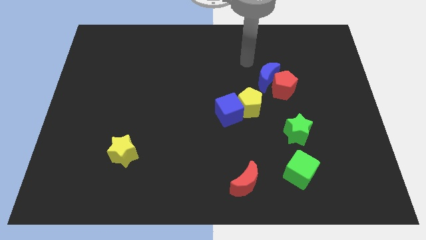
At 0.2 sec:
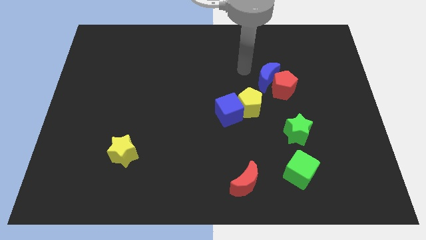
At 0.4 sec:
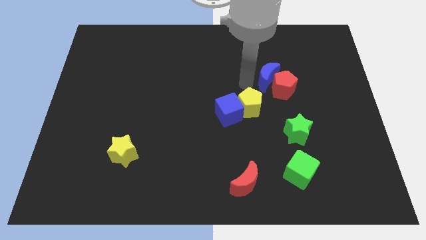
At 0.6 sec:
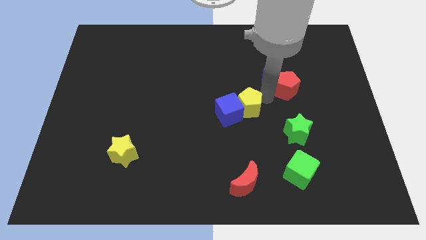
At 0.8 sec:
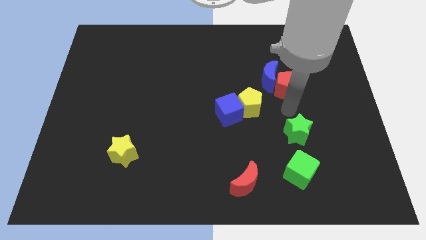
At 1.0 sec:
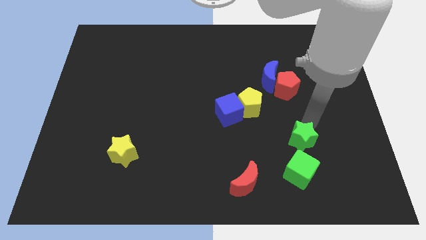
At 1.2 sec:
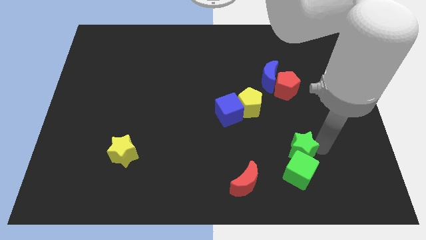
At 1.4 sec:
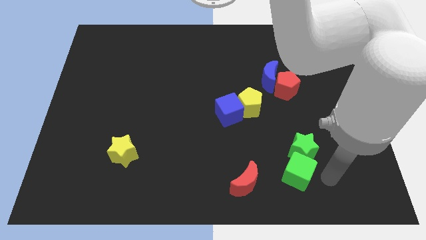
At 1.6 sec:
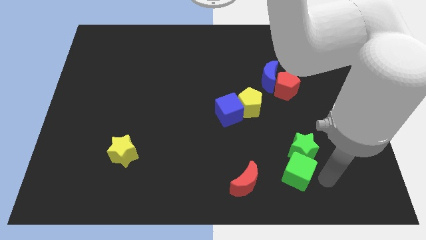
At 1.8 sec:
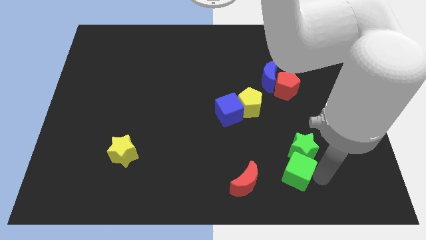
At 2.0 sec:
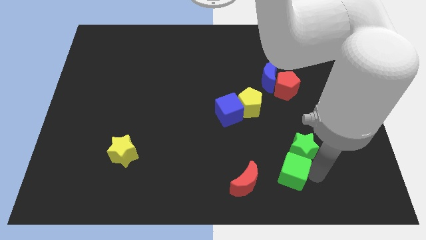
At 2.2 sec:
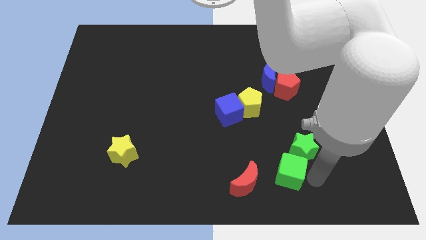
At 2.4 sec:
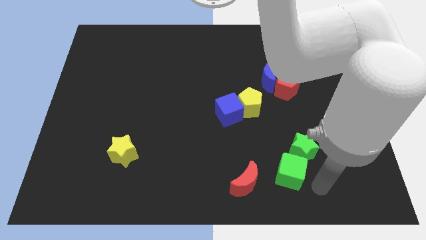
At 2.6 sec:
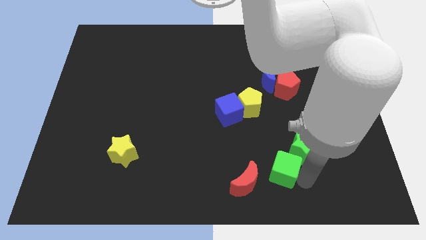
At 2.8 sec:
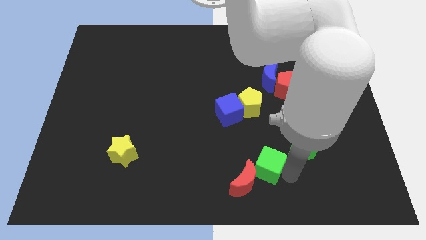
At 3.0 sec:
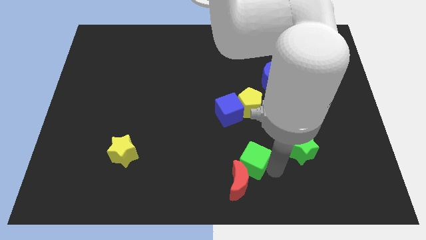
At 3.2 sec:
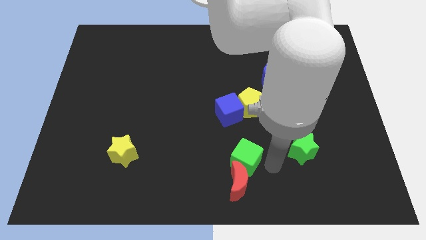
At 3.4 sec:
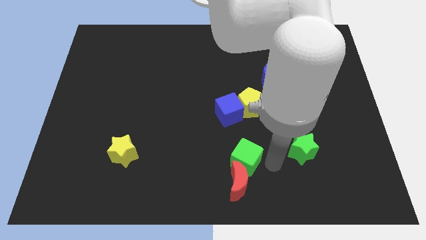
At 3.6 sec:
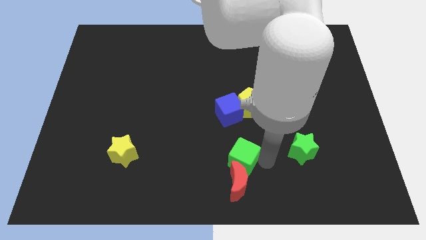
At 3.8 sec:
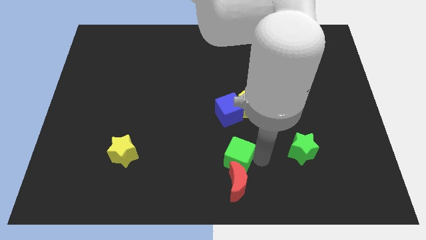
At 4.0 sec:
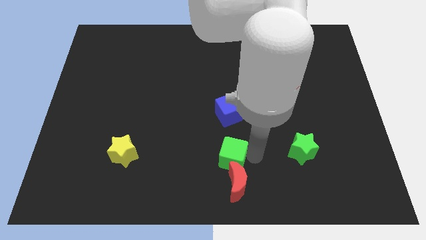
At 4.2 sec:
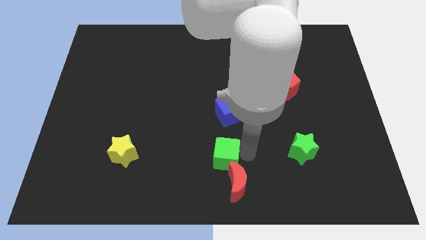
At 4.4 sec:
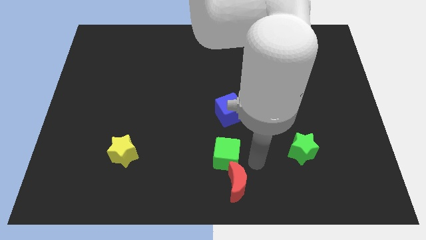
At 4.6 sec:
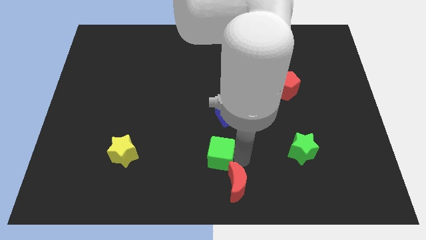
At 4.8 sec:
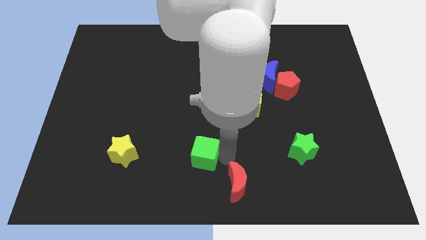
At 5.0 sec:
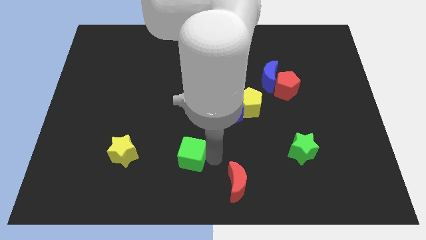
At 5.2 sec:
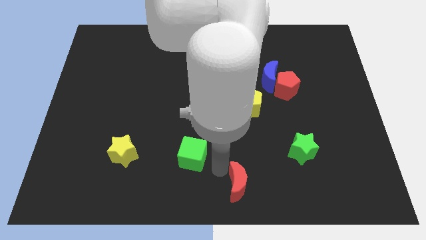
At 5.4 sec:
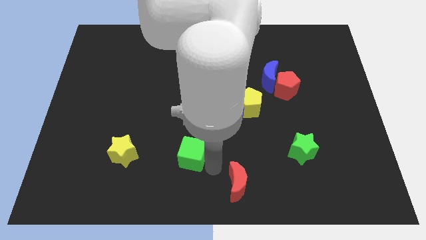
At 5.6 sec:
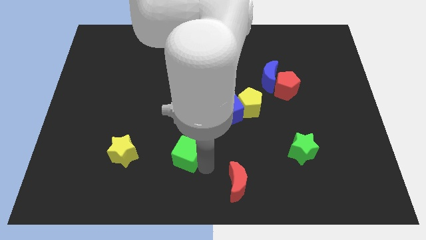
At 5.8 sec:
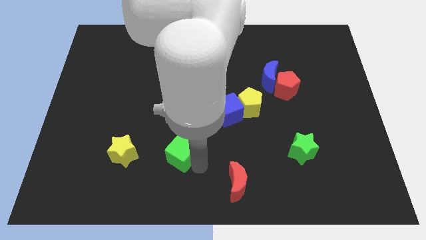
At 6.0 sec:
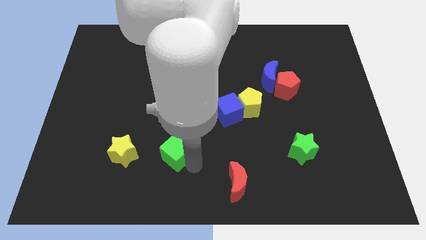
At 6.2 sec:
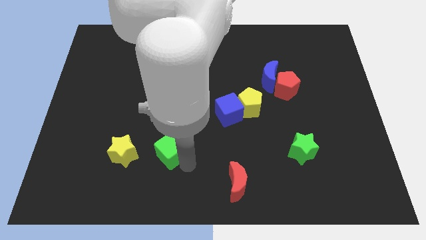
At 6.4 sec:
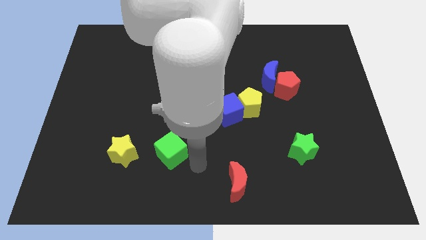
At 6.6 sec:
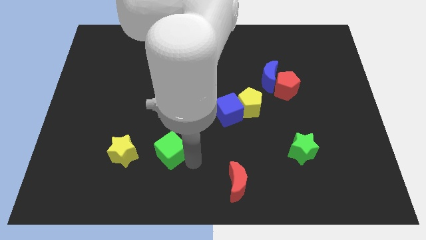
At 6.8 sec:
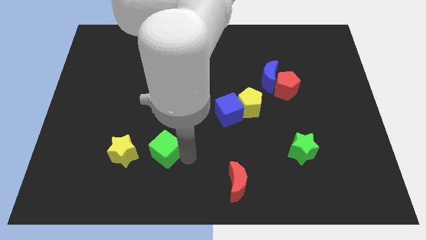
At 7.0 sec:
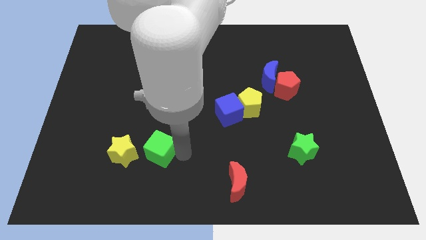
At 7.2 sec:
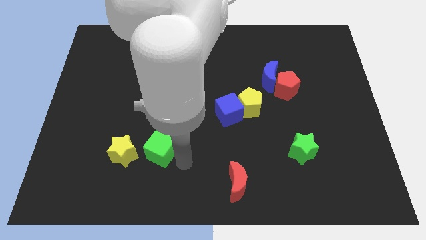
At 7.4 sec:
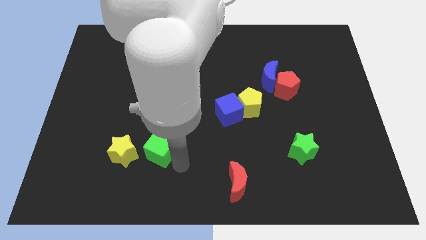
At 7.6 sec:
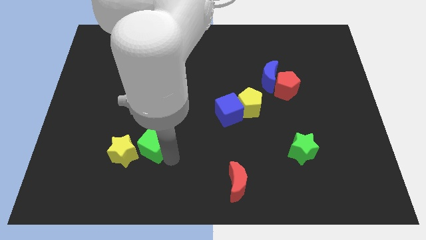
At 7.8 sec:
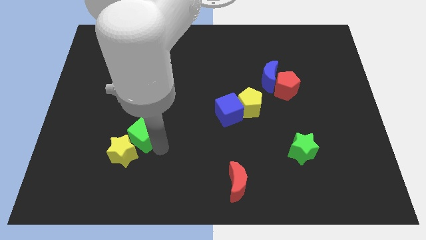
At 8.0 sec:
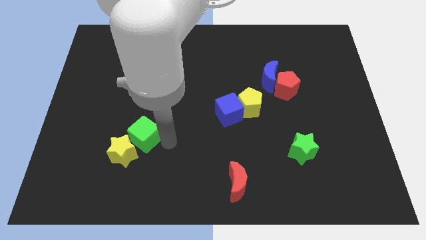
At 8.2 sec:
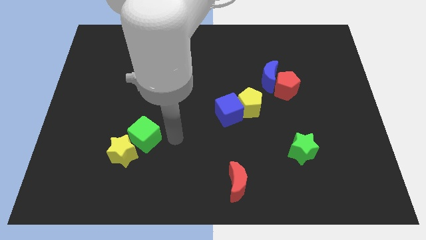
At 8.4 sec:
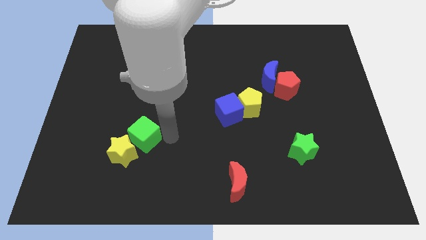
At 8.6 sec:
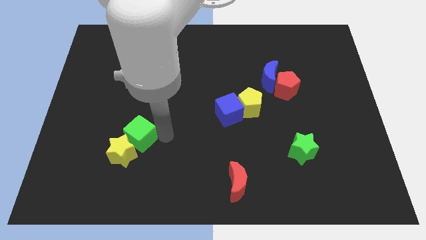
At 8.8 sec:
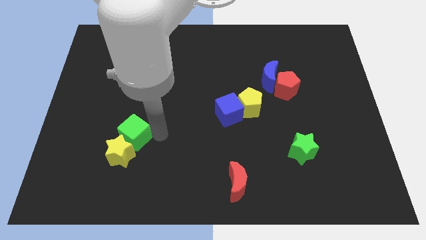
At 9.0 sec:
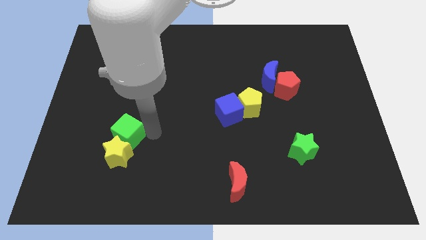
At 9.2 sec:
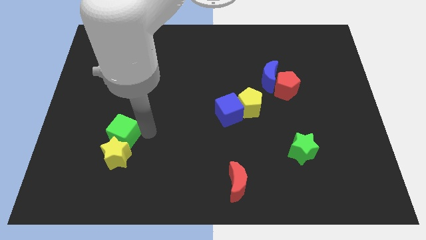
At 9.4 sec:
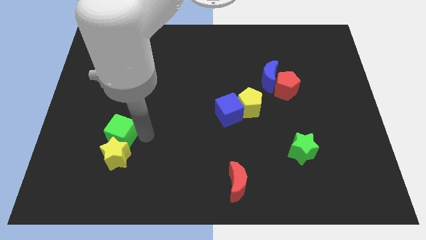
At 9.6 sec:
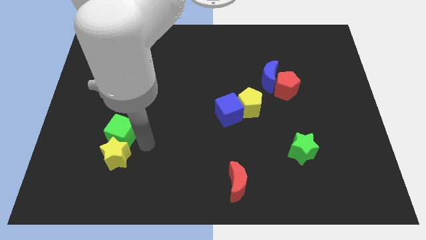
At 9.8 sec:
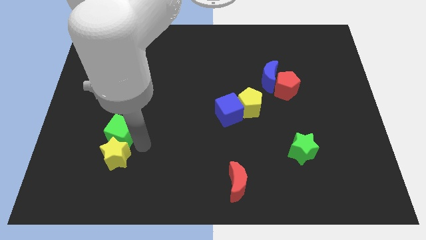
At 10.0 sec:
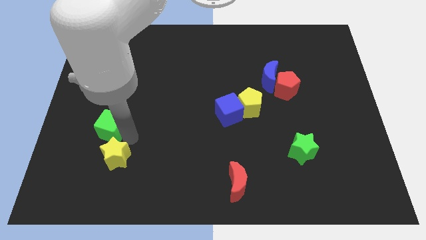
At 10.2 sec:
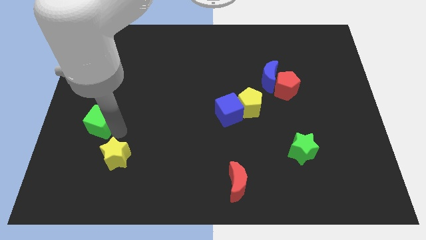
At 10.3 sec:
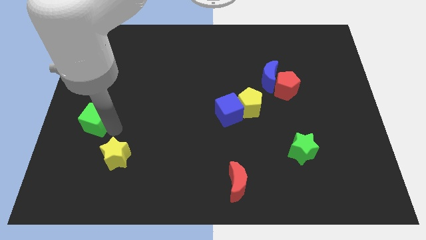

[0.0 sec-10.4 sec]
put the green cube to the center left

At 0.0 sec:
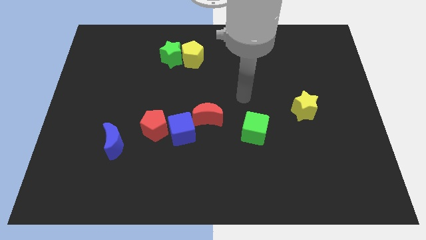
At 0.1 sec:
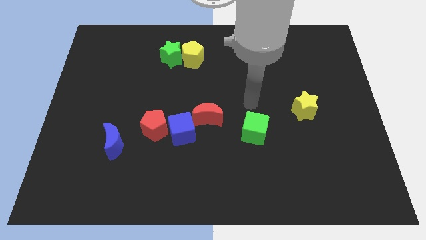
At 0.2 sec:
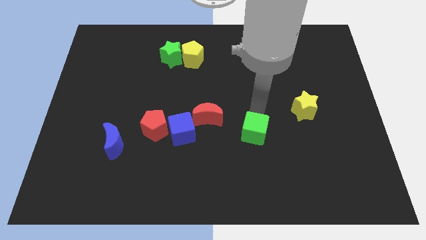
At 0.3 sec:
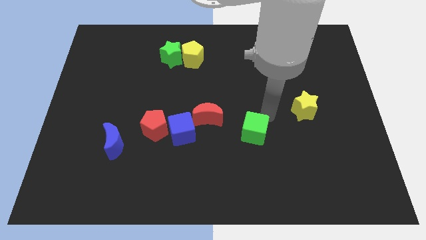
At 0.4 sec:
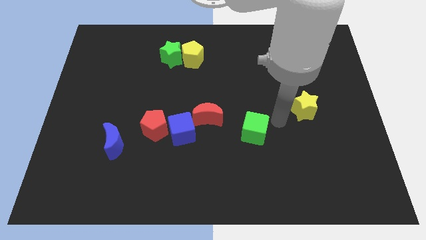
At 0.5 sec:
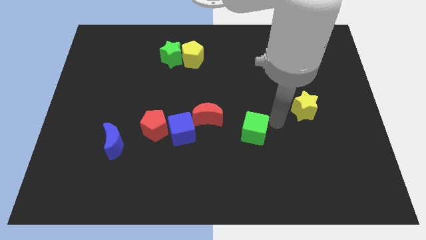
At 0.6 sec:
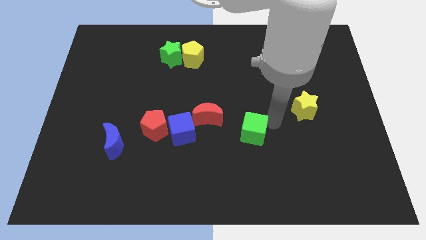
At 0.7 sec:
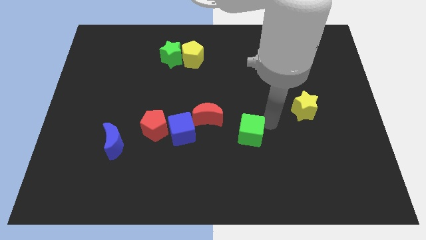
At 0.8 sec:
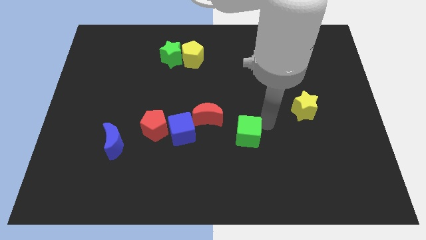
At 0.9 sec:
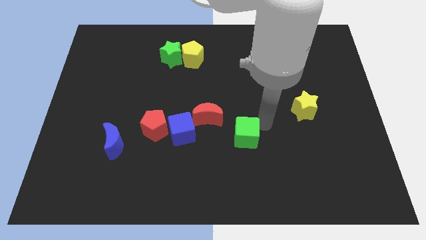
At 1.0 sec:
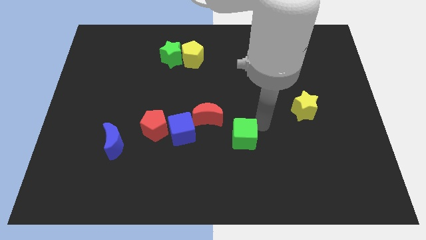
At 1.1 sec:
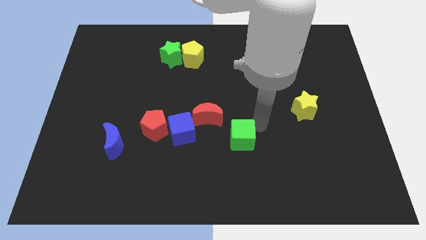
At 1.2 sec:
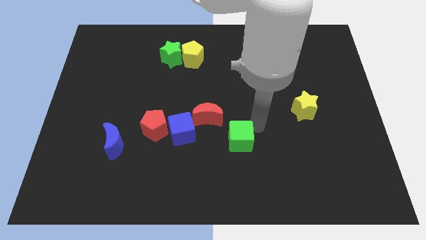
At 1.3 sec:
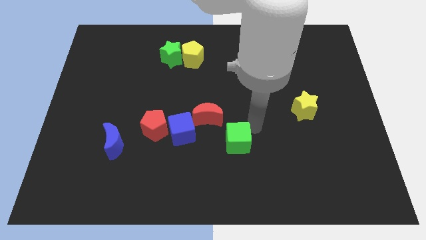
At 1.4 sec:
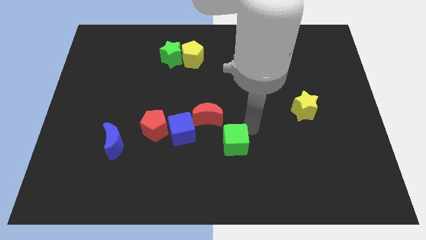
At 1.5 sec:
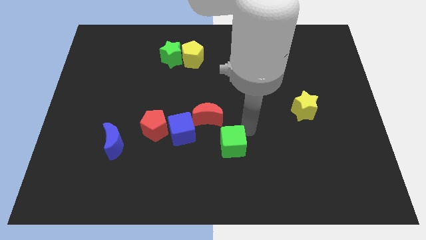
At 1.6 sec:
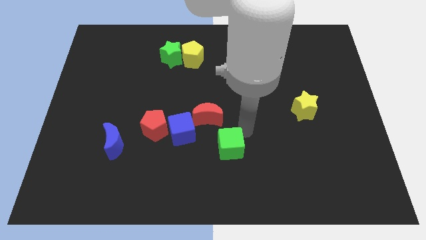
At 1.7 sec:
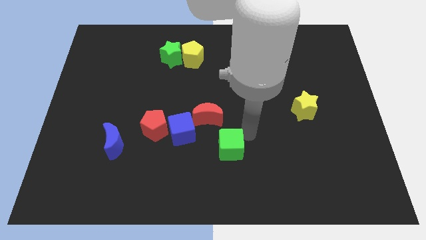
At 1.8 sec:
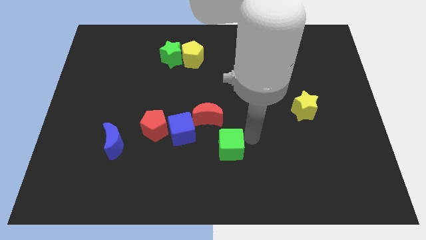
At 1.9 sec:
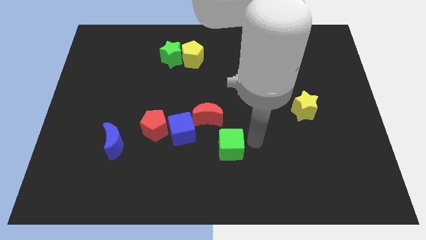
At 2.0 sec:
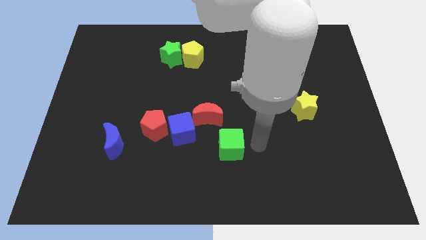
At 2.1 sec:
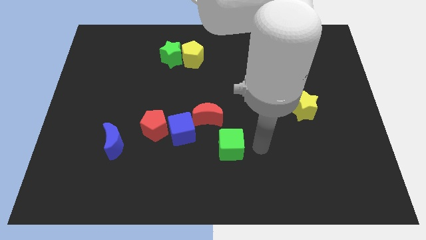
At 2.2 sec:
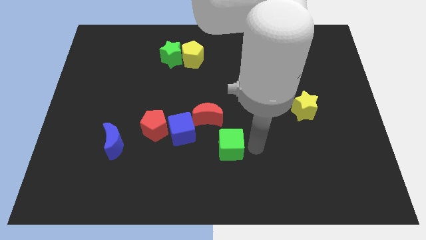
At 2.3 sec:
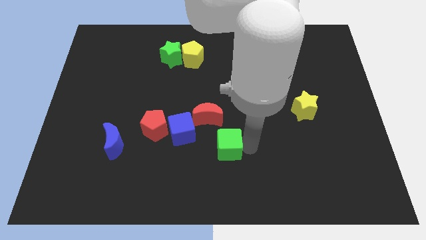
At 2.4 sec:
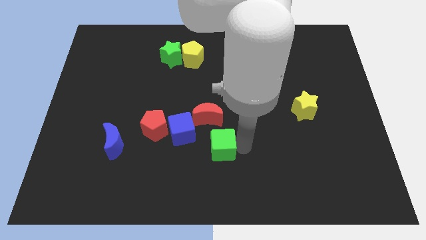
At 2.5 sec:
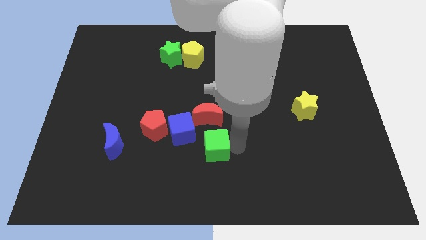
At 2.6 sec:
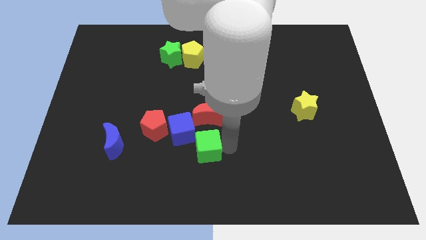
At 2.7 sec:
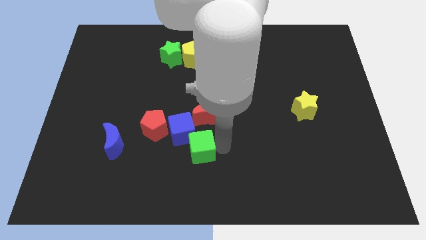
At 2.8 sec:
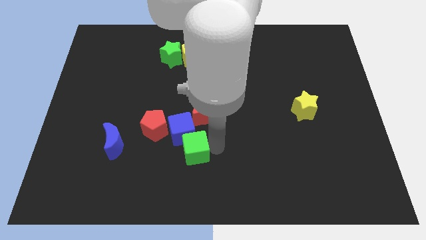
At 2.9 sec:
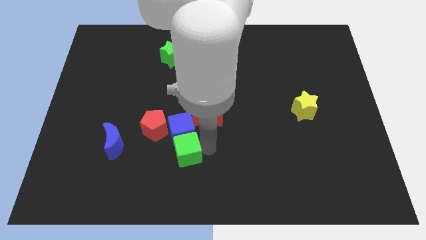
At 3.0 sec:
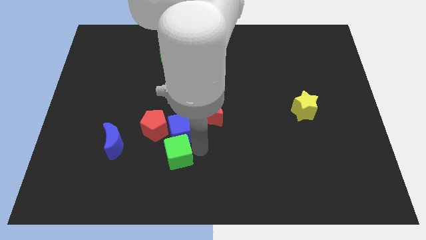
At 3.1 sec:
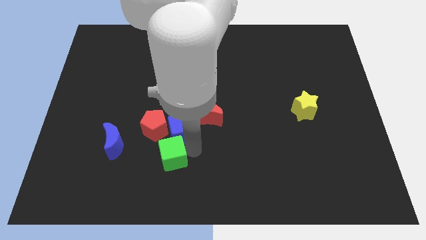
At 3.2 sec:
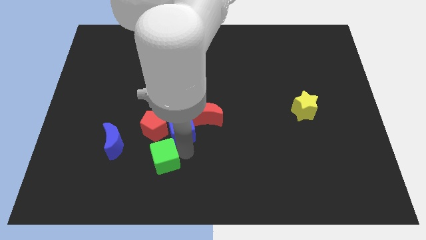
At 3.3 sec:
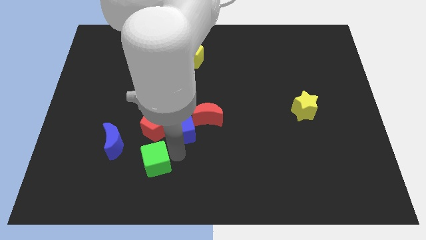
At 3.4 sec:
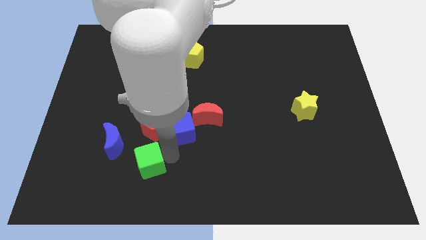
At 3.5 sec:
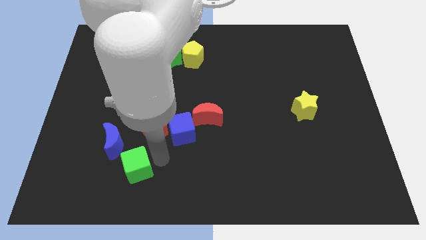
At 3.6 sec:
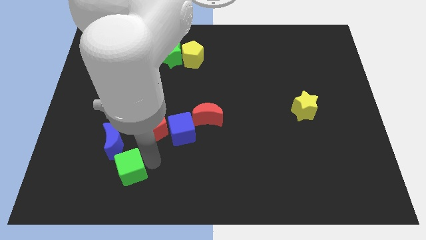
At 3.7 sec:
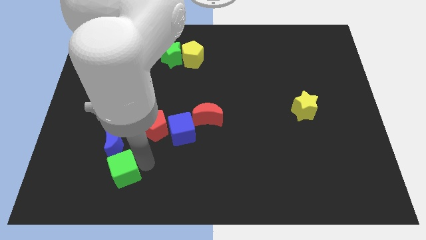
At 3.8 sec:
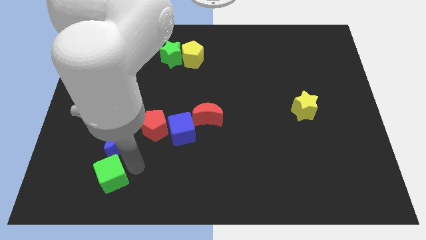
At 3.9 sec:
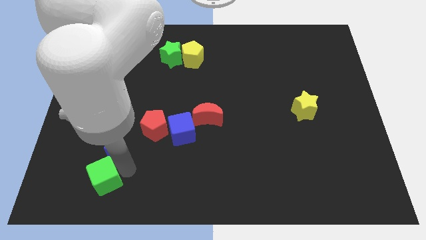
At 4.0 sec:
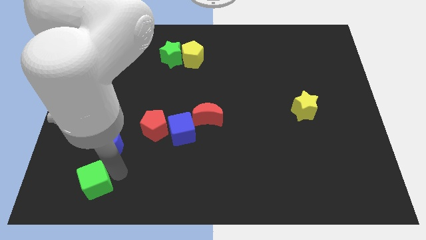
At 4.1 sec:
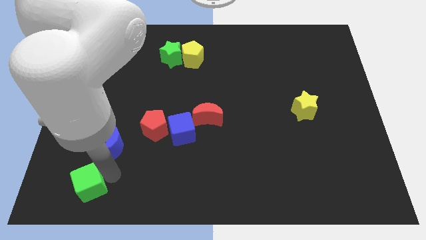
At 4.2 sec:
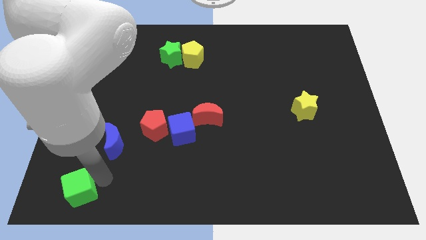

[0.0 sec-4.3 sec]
slide the green cube to the bottom left
